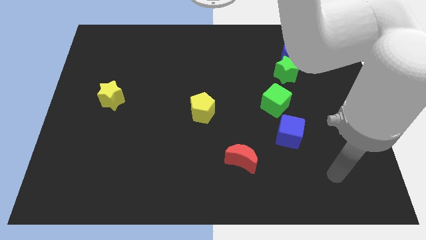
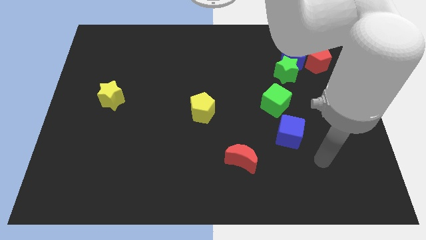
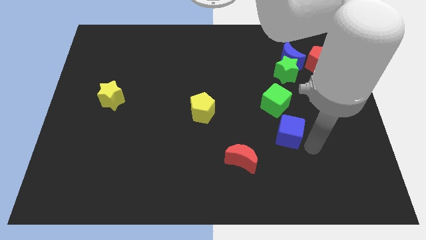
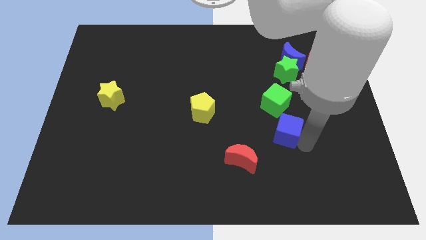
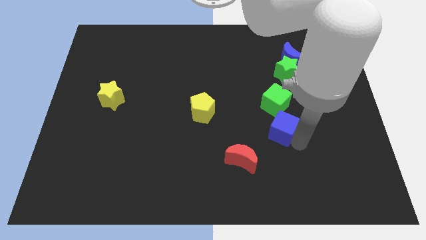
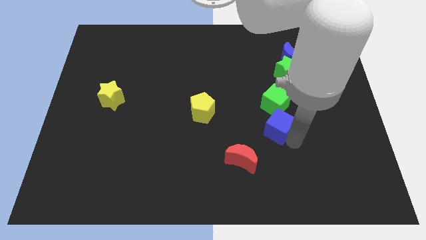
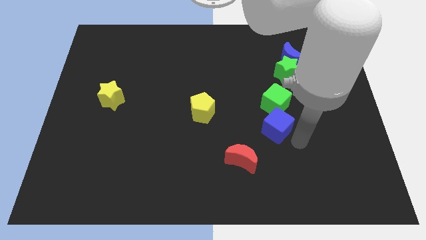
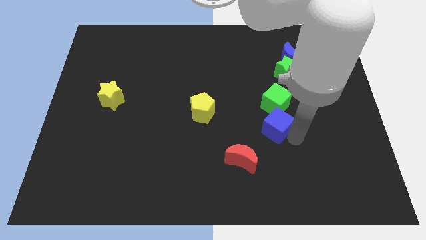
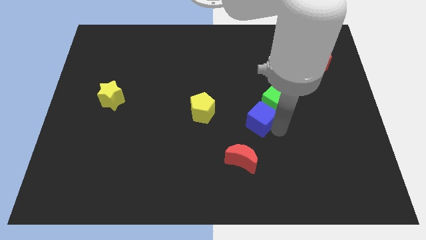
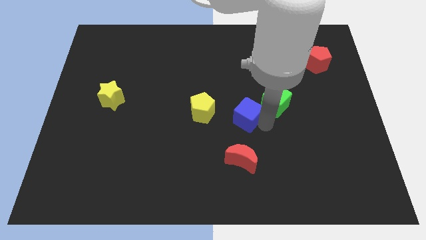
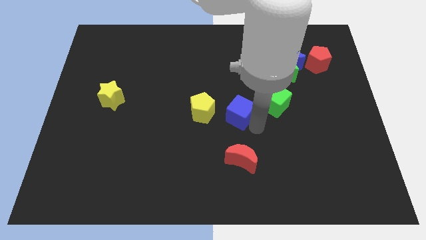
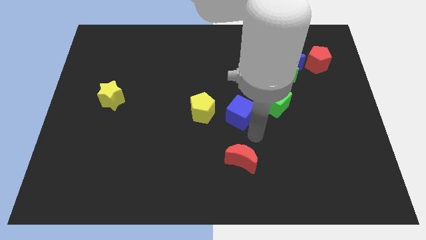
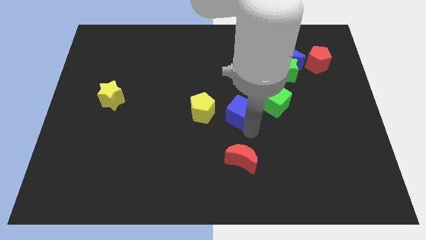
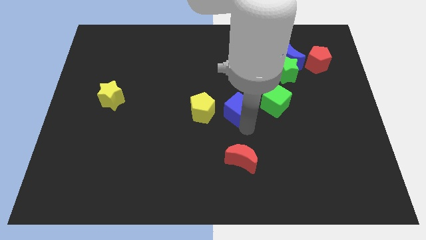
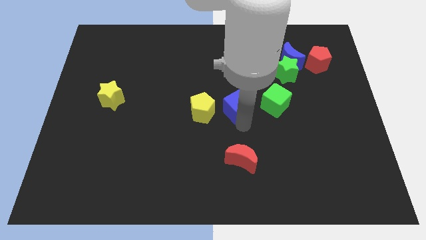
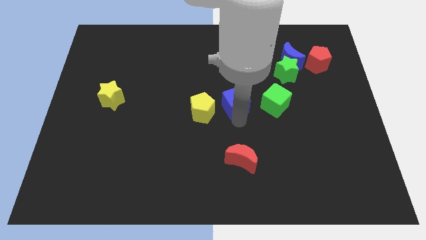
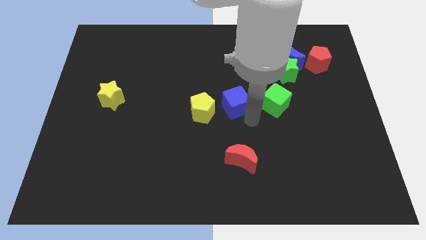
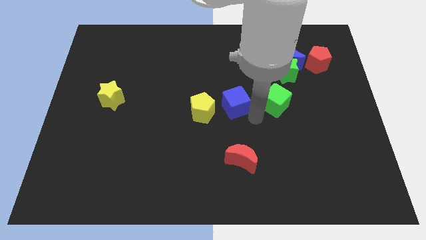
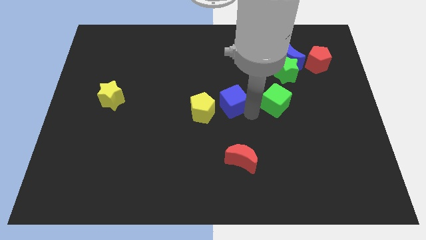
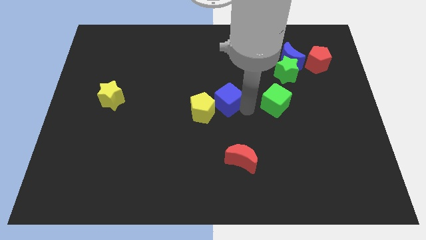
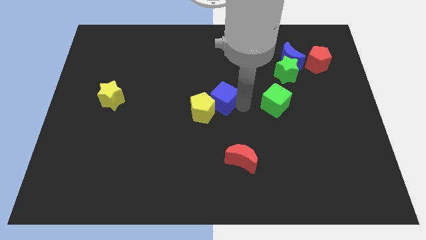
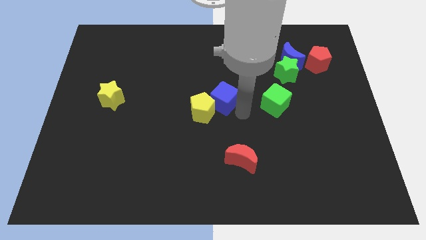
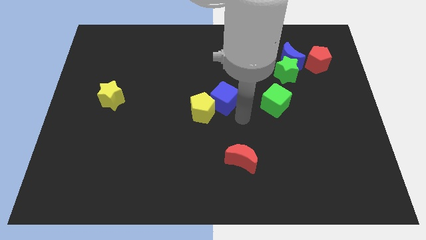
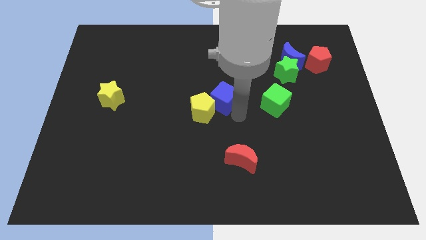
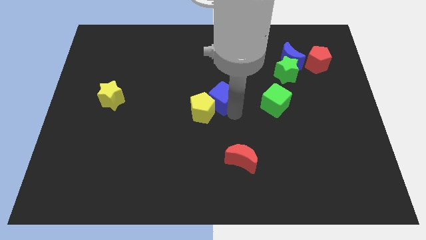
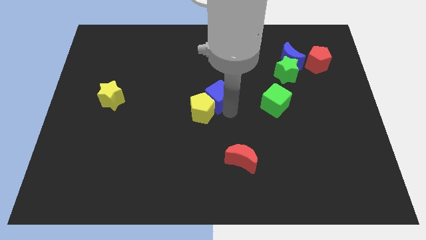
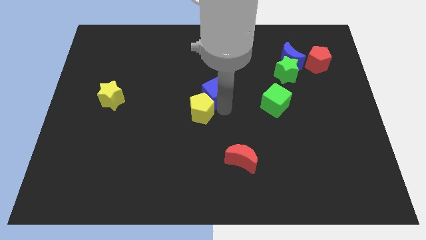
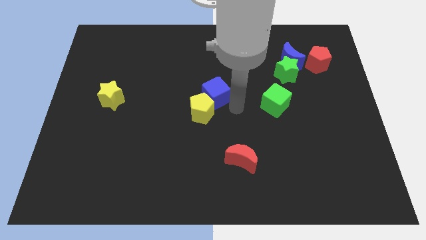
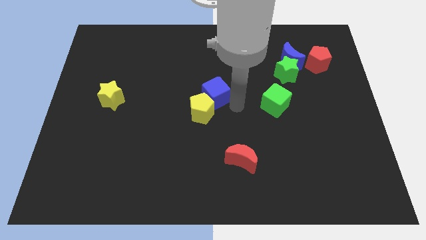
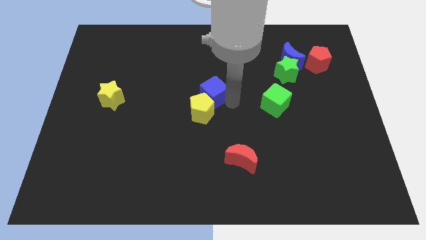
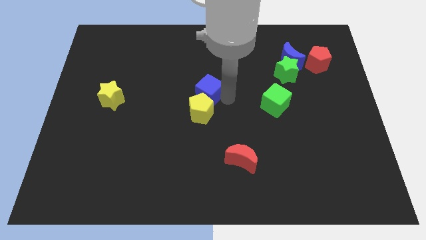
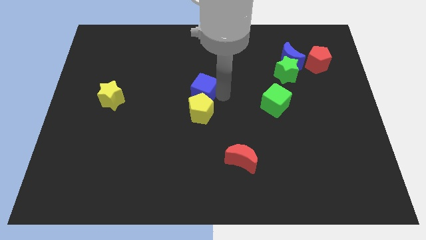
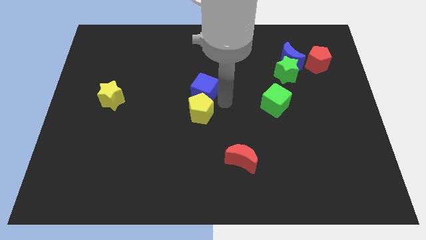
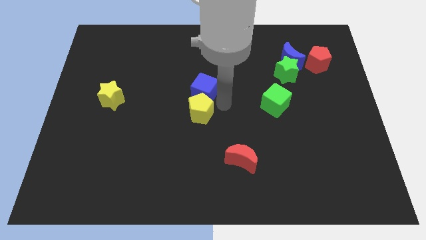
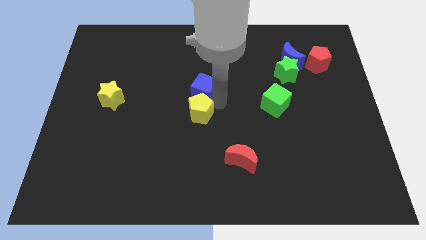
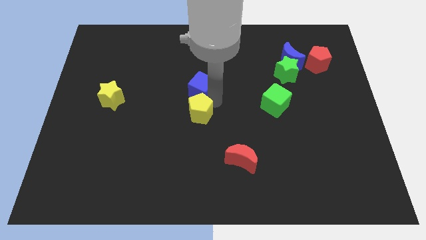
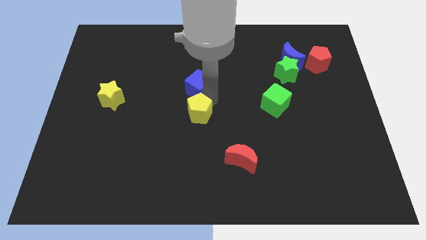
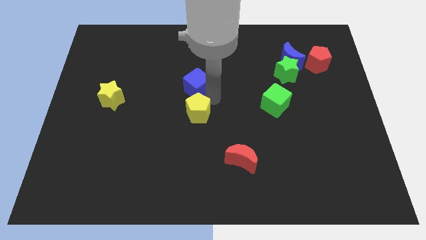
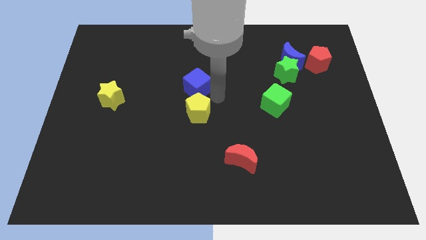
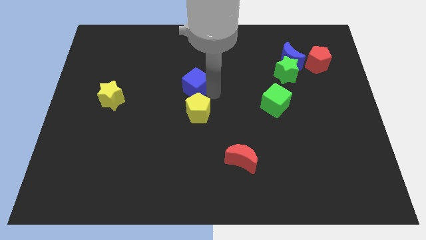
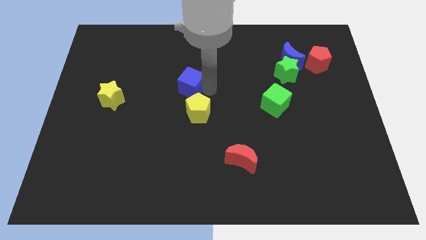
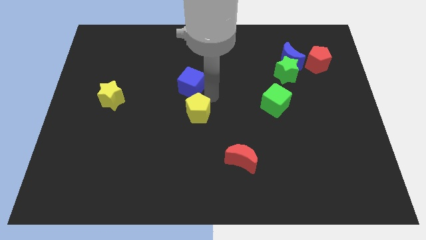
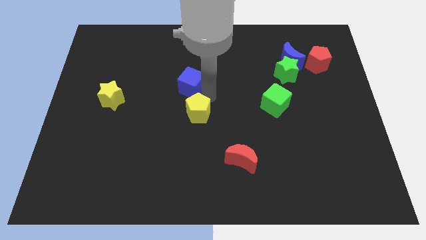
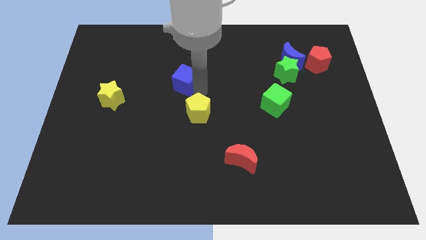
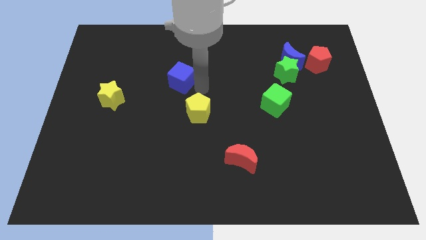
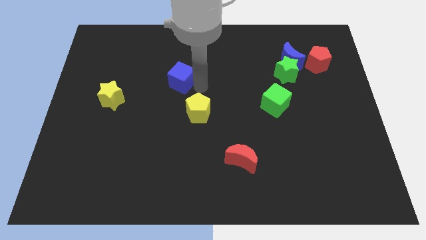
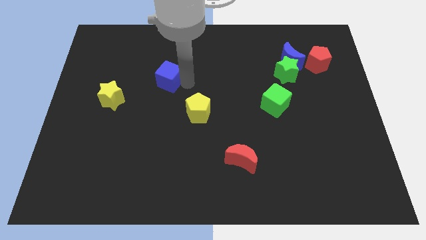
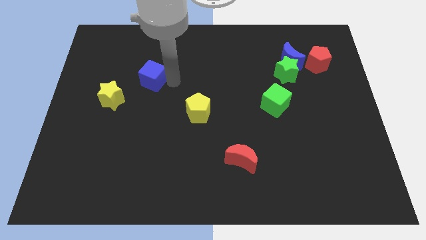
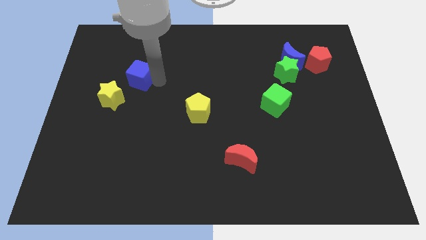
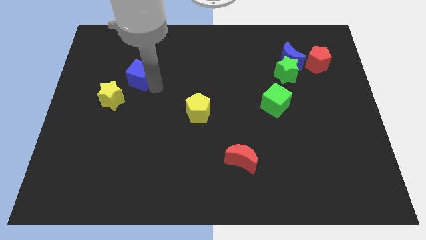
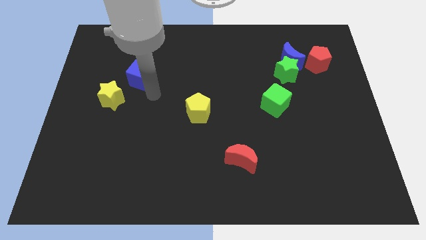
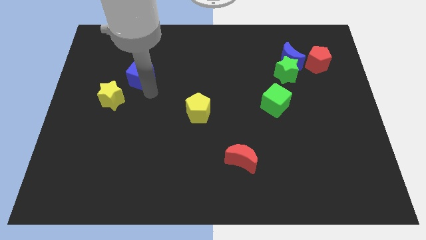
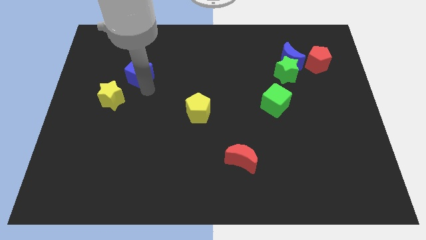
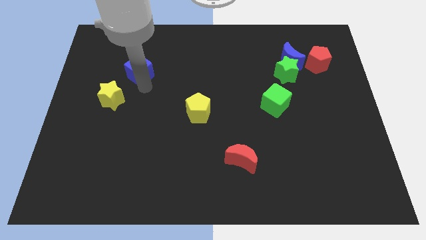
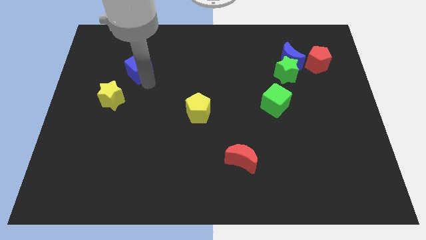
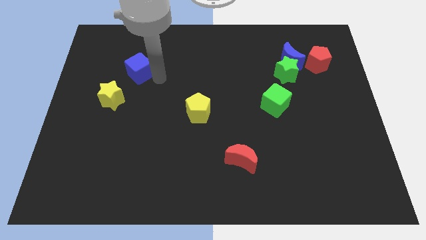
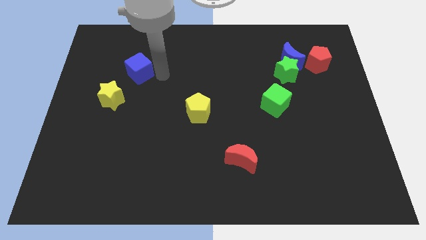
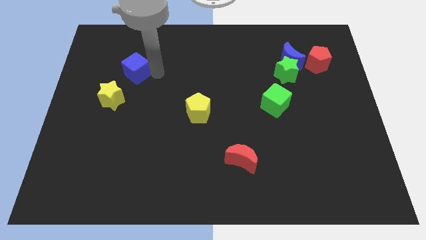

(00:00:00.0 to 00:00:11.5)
slide the blue cube to the top side of the yellow star

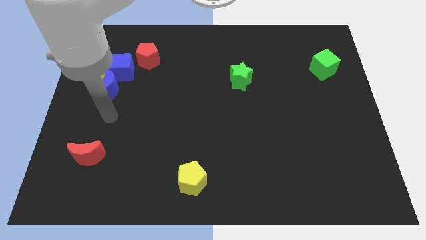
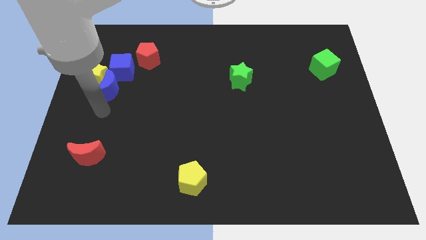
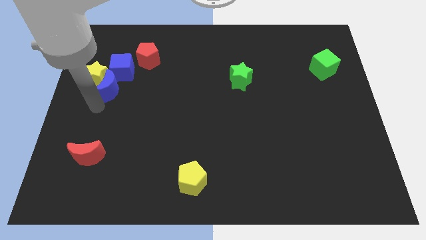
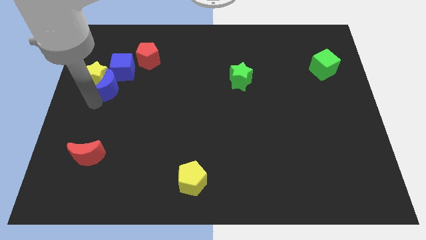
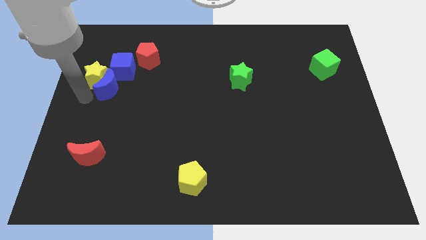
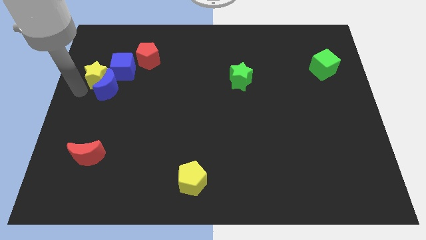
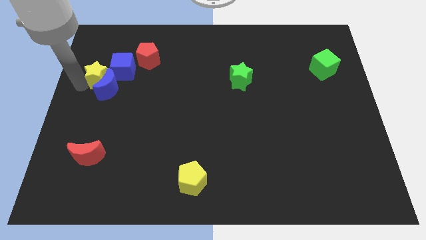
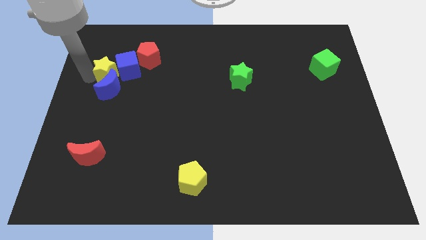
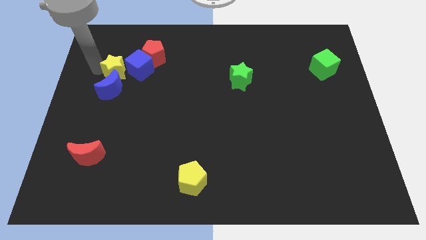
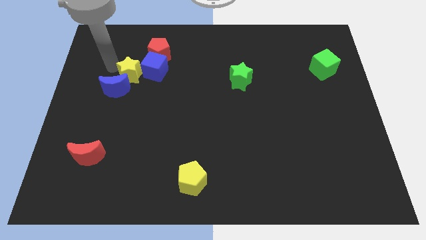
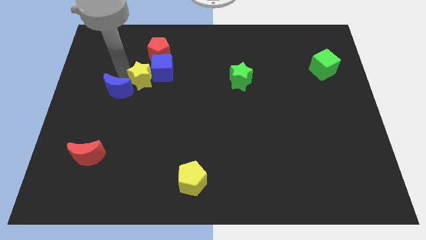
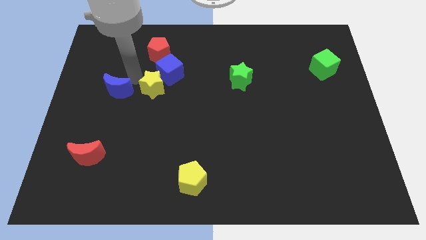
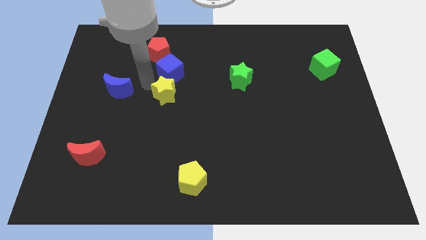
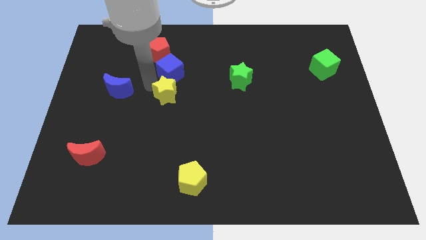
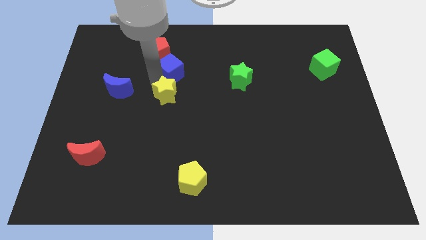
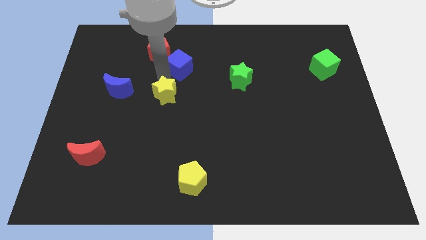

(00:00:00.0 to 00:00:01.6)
move the blue cube to the right side of the red pentagon

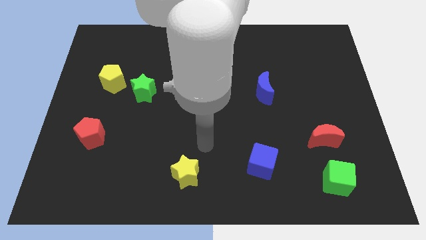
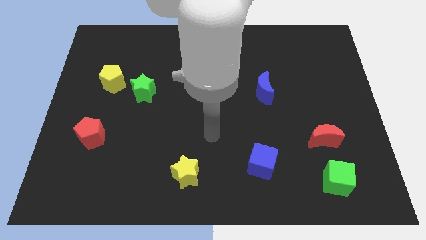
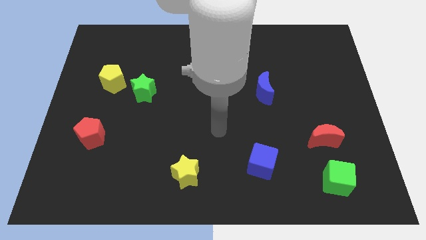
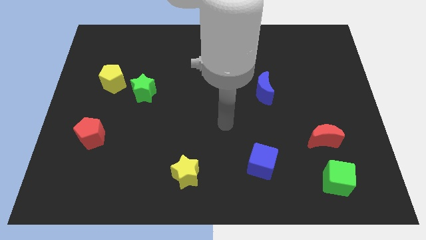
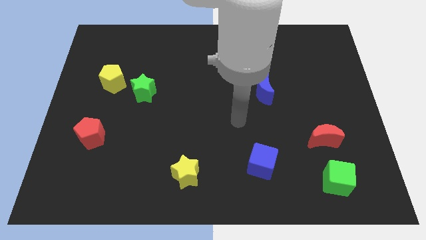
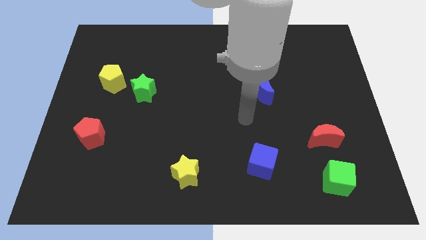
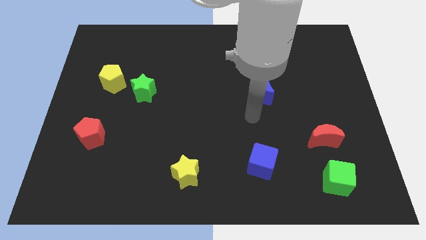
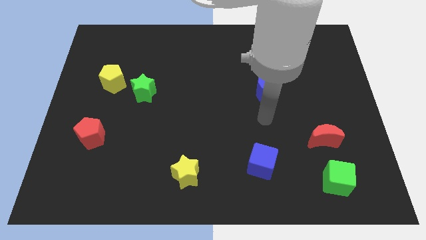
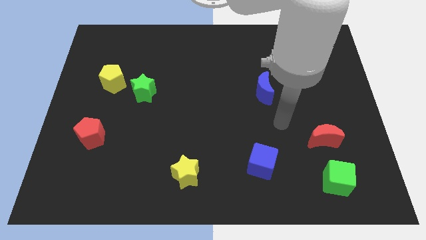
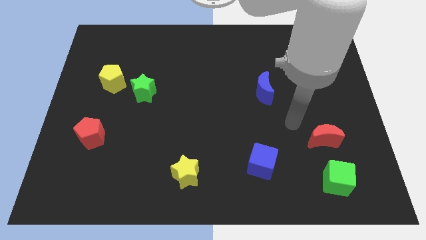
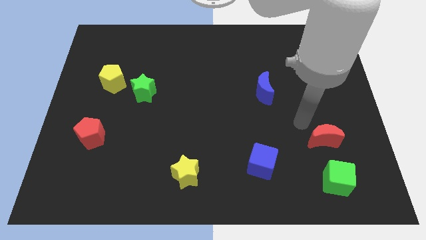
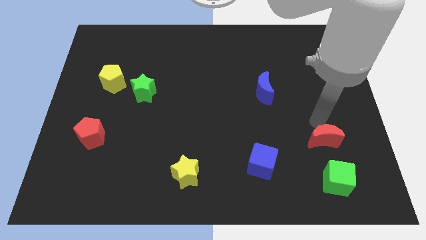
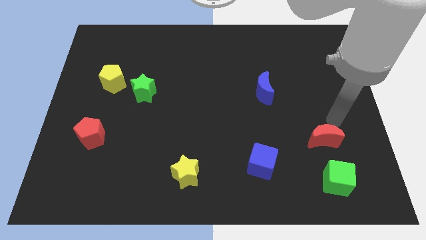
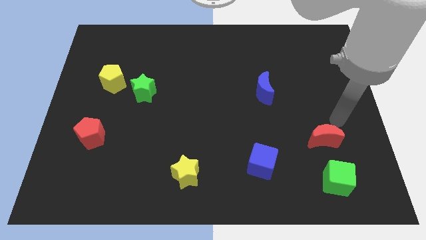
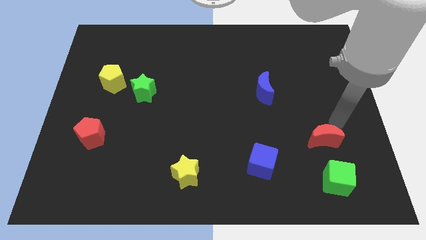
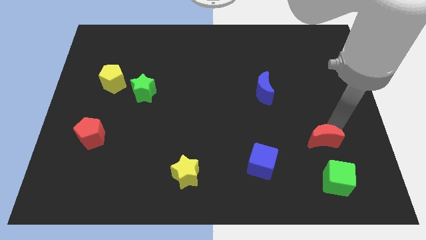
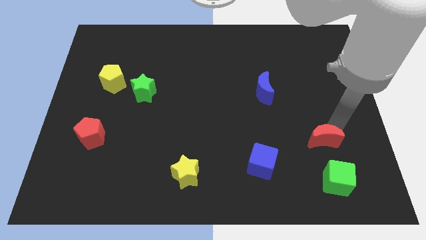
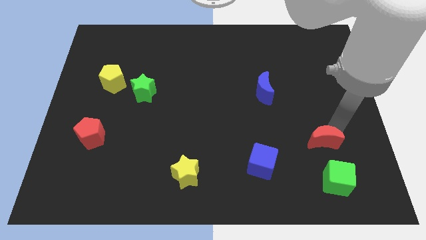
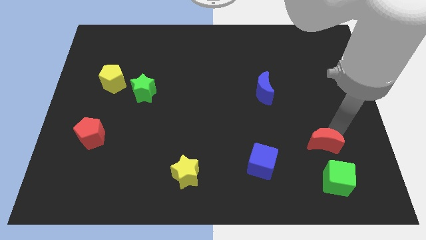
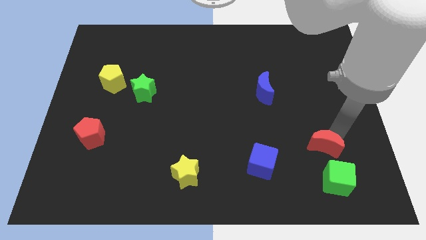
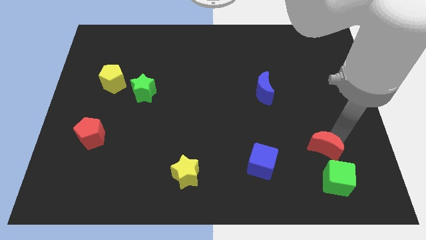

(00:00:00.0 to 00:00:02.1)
put the red moon to the top left side of the green cube
